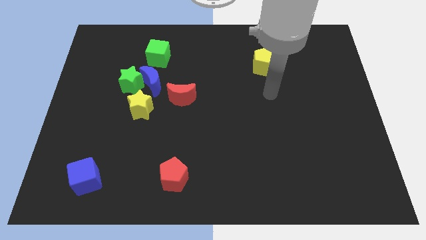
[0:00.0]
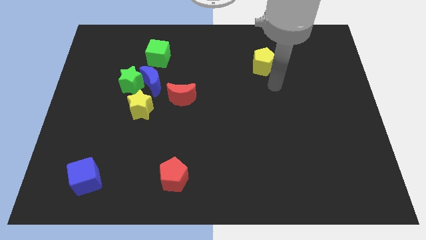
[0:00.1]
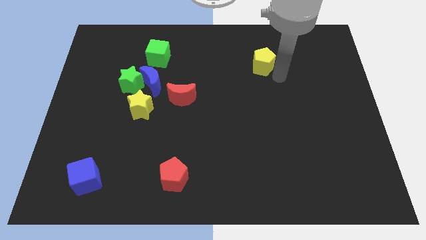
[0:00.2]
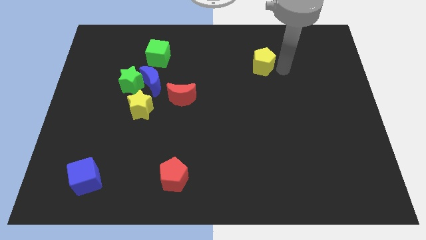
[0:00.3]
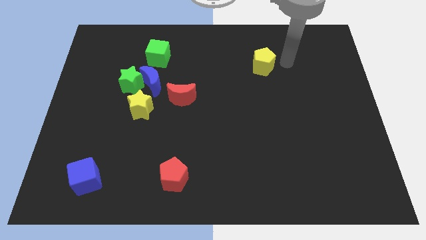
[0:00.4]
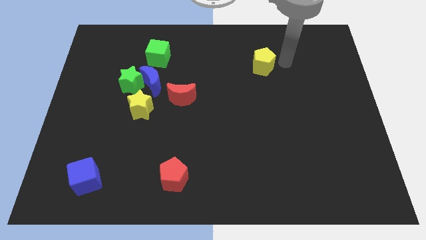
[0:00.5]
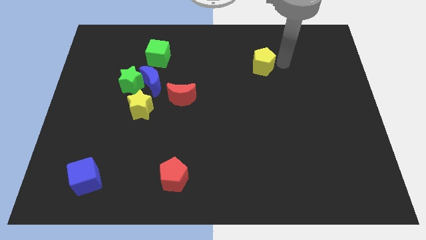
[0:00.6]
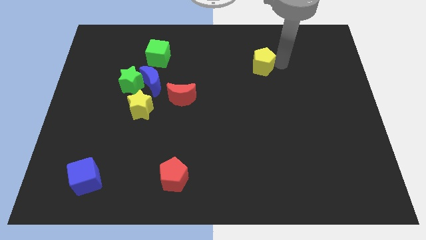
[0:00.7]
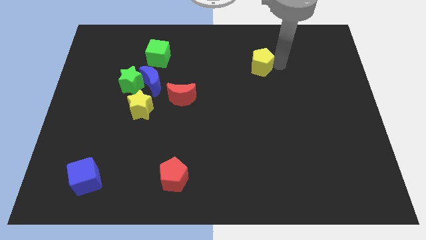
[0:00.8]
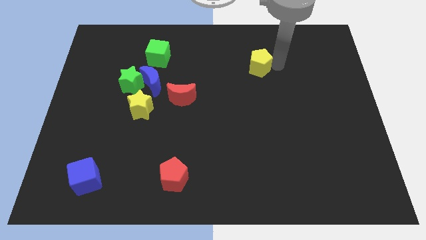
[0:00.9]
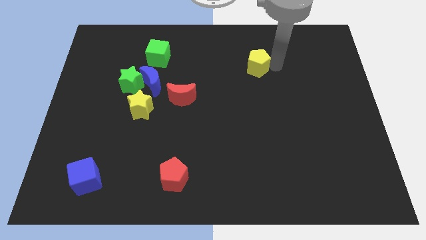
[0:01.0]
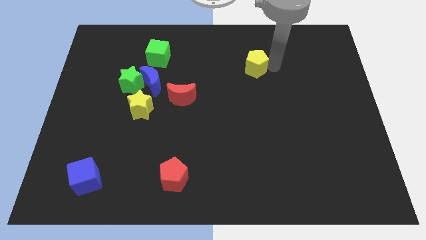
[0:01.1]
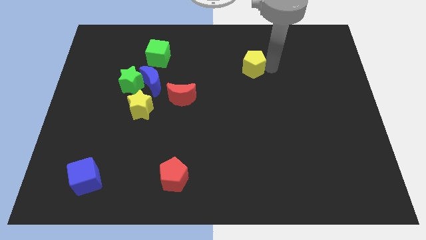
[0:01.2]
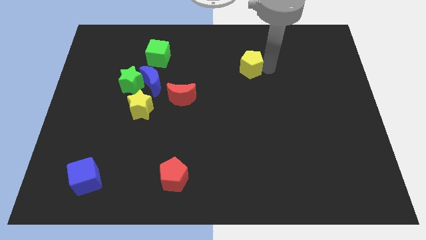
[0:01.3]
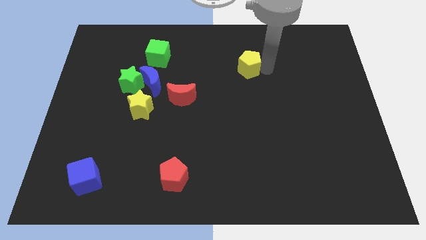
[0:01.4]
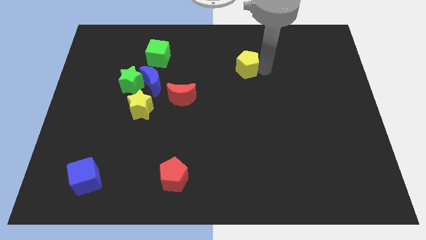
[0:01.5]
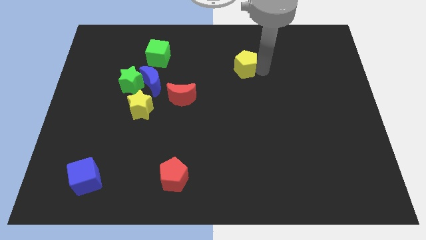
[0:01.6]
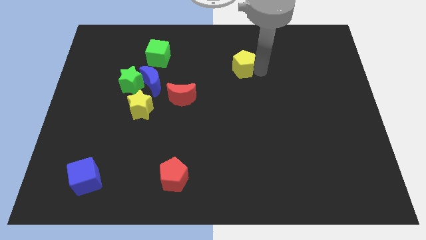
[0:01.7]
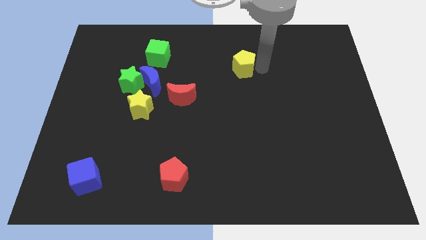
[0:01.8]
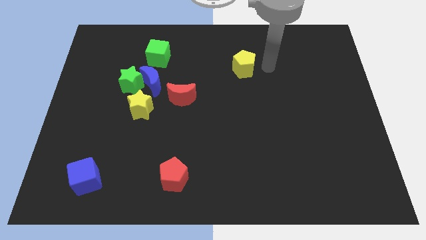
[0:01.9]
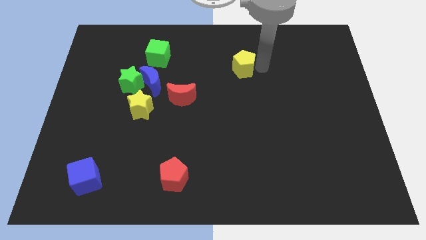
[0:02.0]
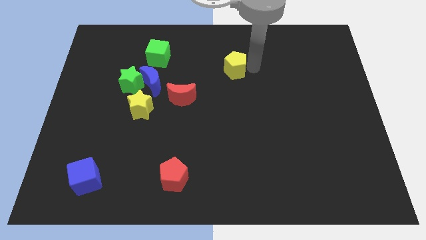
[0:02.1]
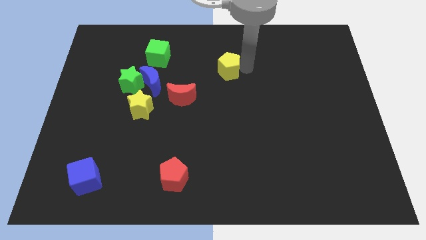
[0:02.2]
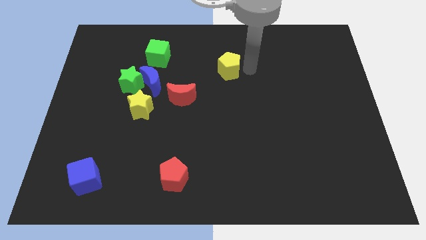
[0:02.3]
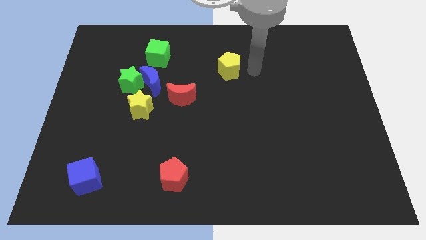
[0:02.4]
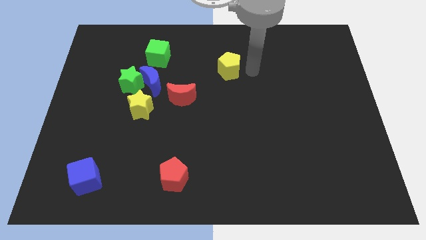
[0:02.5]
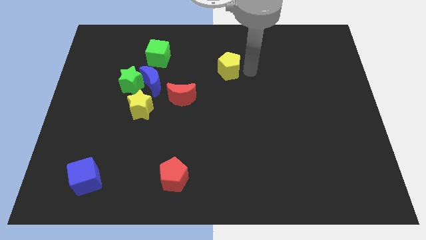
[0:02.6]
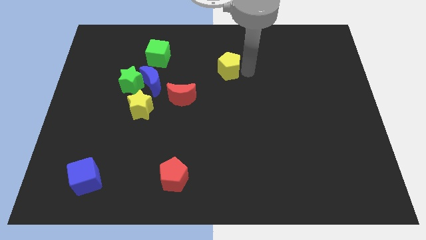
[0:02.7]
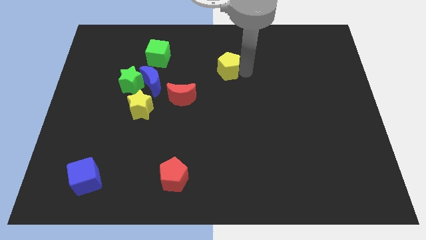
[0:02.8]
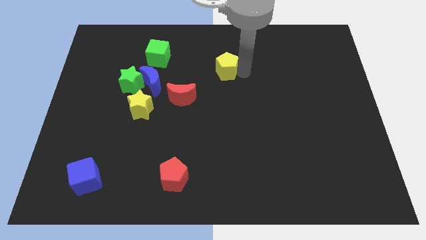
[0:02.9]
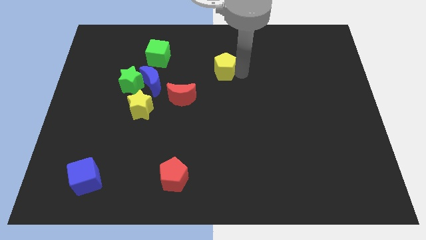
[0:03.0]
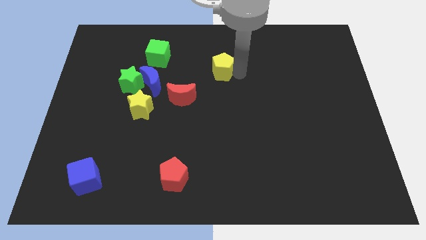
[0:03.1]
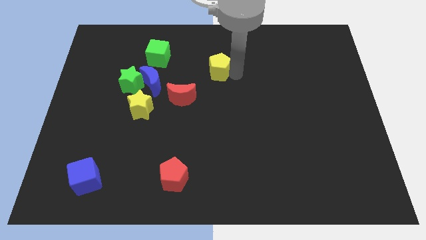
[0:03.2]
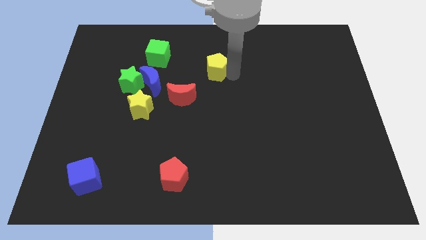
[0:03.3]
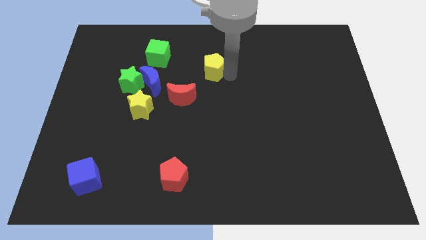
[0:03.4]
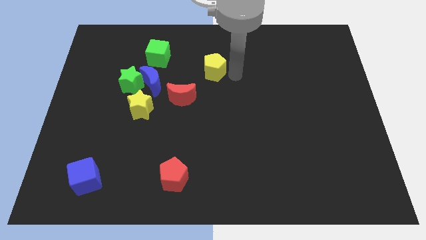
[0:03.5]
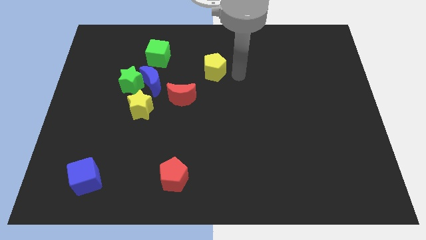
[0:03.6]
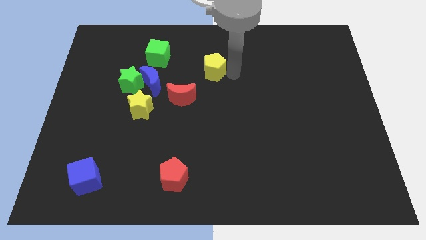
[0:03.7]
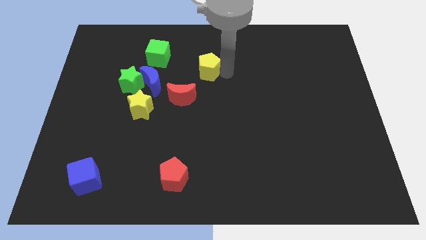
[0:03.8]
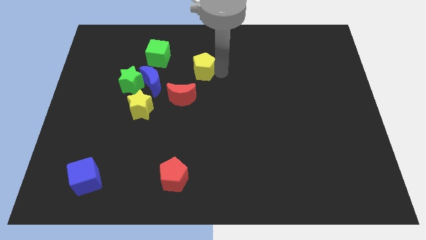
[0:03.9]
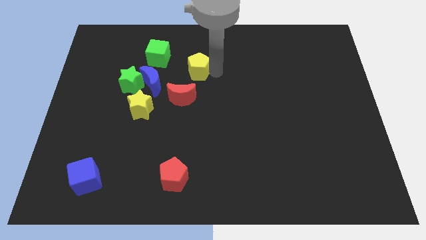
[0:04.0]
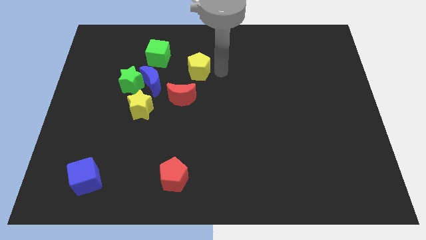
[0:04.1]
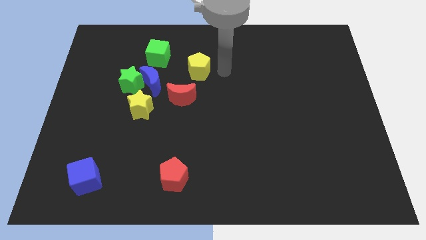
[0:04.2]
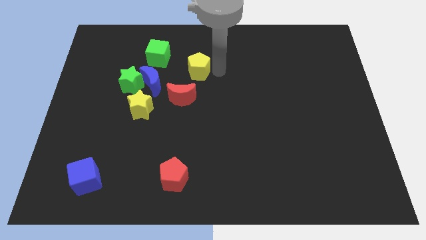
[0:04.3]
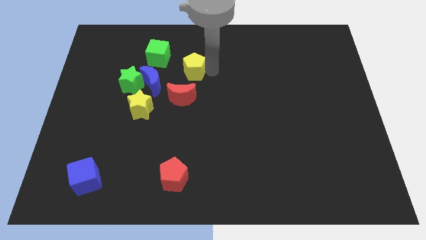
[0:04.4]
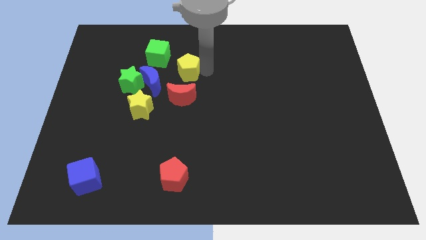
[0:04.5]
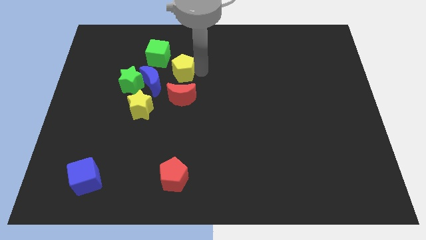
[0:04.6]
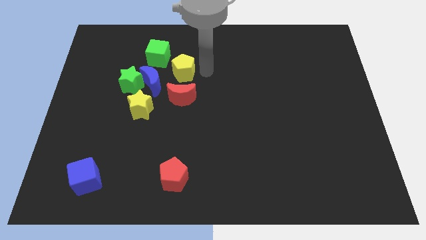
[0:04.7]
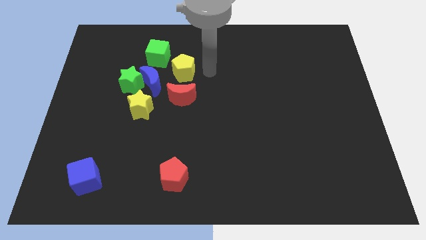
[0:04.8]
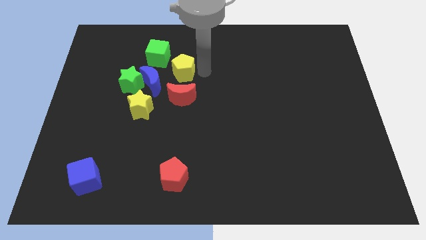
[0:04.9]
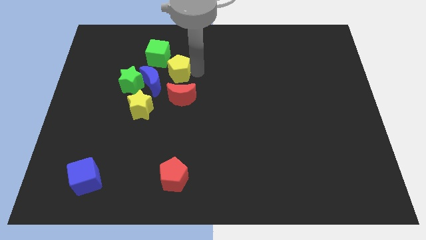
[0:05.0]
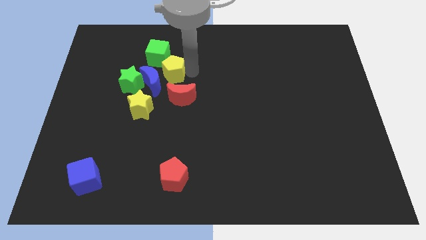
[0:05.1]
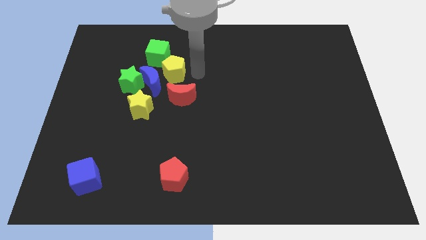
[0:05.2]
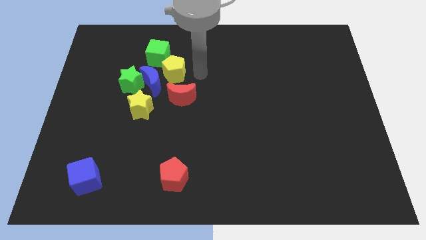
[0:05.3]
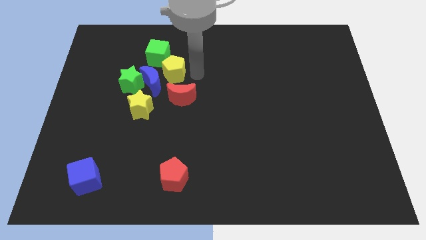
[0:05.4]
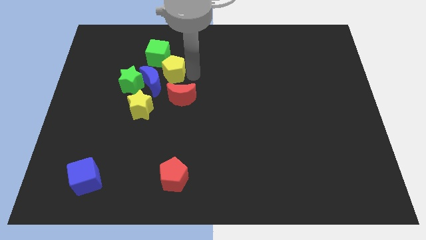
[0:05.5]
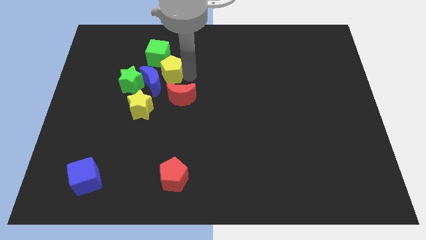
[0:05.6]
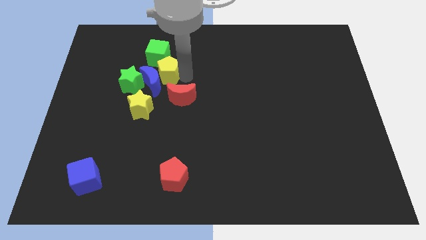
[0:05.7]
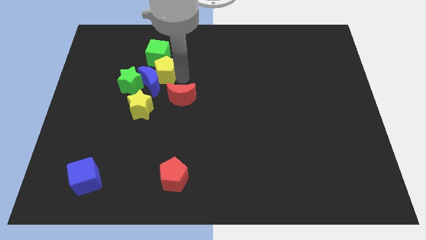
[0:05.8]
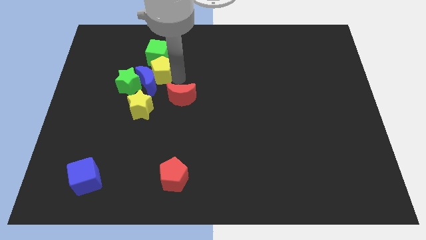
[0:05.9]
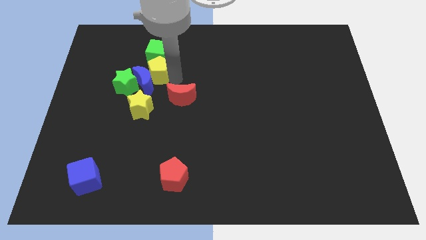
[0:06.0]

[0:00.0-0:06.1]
push the yellow pentagon to the bottom left side of the green cube

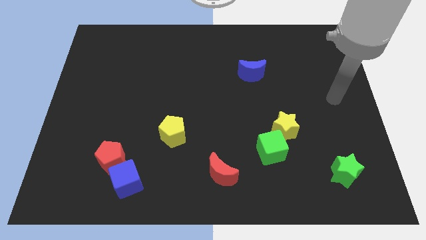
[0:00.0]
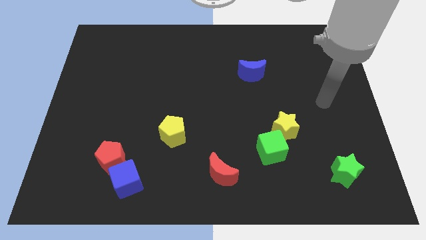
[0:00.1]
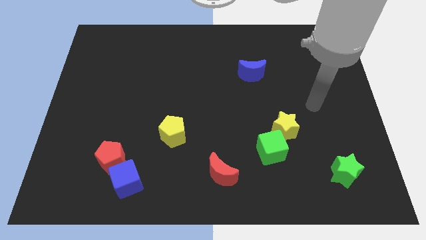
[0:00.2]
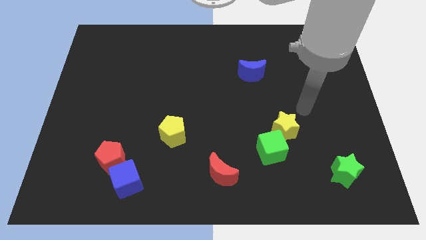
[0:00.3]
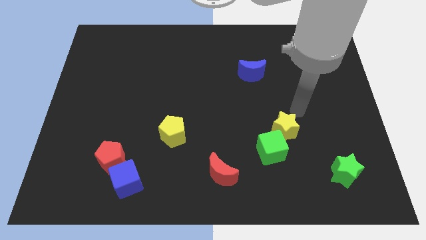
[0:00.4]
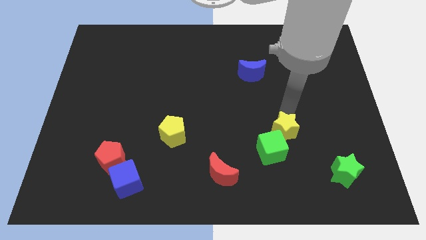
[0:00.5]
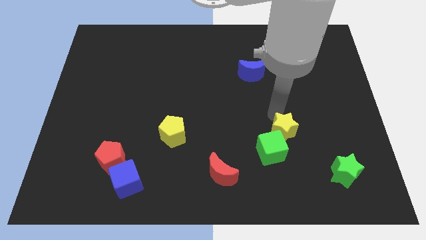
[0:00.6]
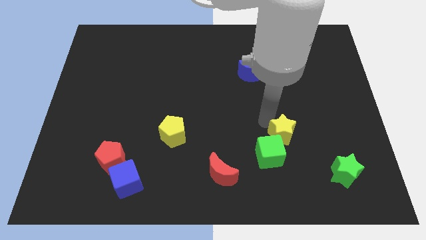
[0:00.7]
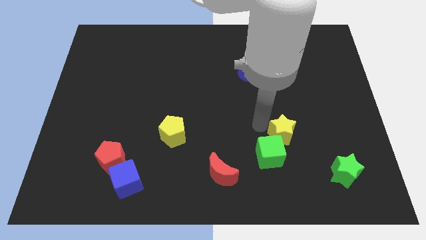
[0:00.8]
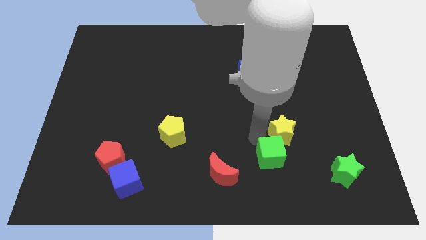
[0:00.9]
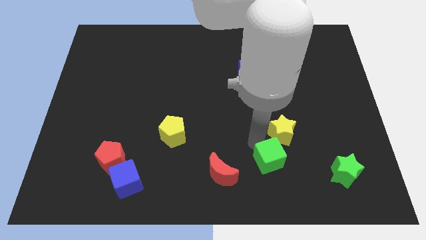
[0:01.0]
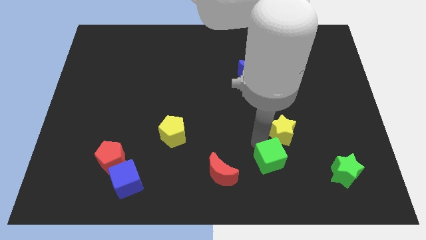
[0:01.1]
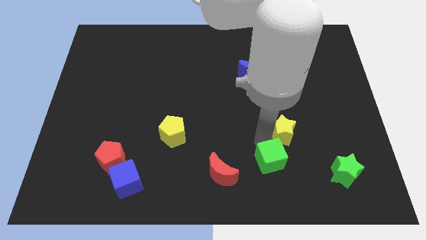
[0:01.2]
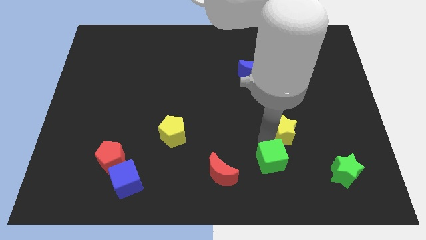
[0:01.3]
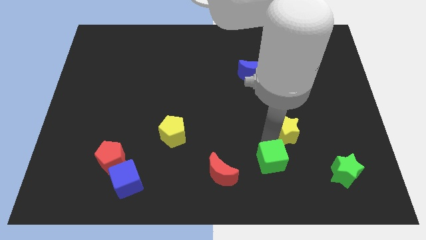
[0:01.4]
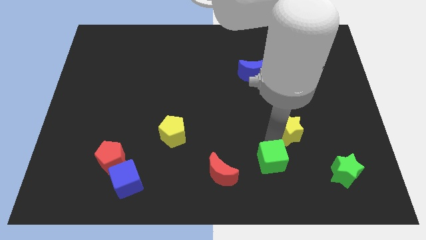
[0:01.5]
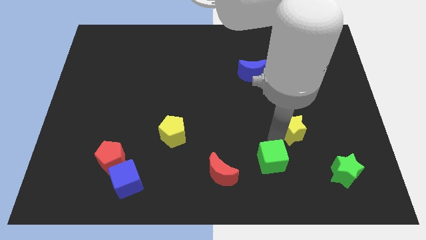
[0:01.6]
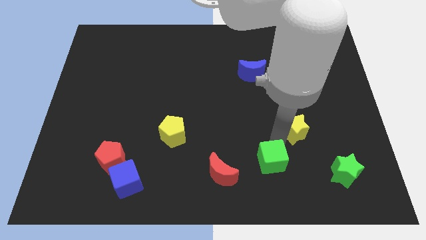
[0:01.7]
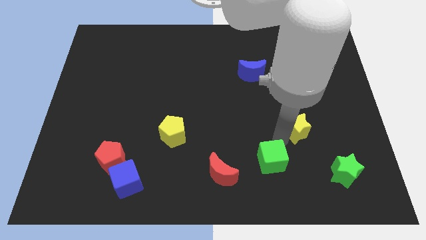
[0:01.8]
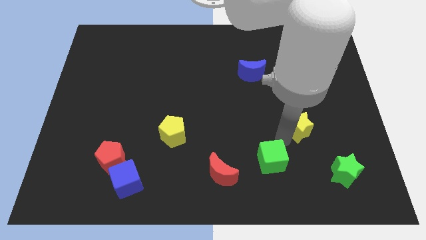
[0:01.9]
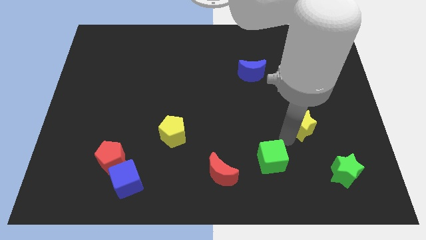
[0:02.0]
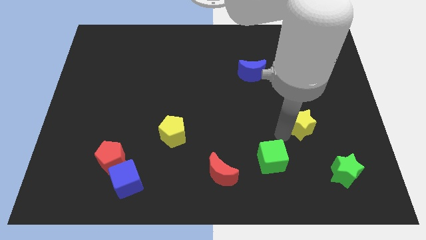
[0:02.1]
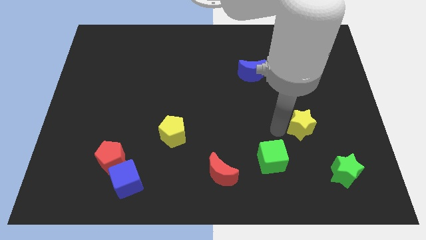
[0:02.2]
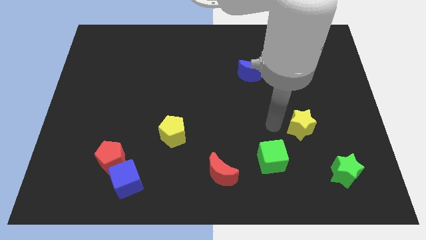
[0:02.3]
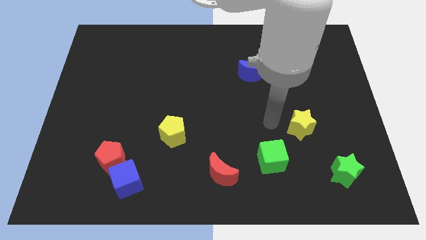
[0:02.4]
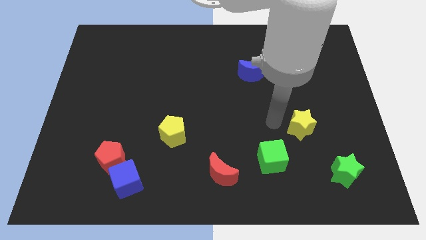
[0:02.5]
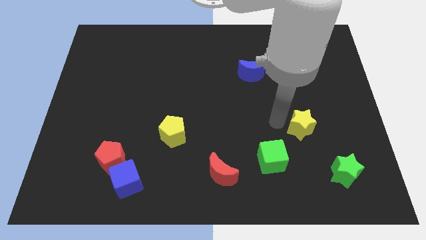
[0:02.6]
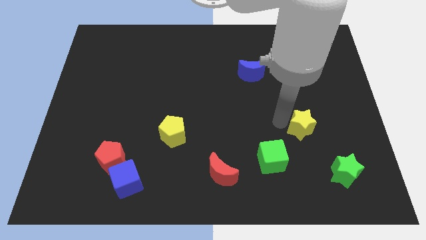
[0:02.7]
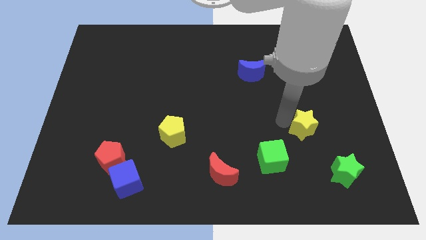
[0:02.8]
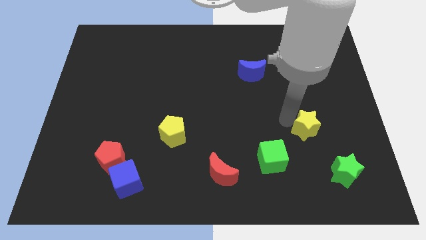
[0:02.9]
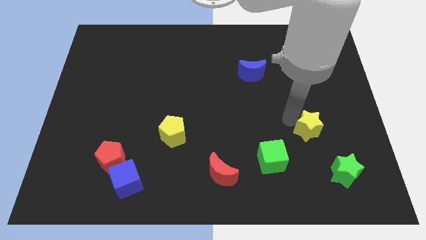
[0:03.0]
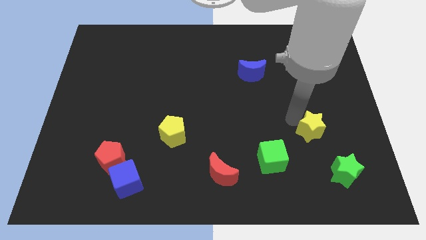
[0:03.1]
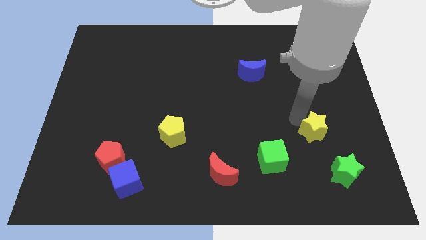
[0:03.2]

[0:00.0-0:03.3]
push the yellow star above the green star
